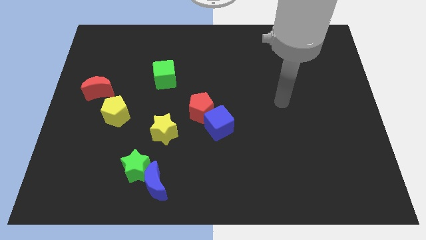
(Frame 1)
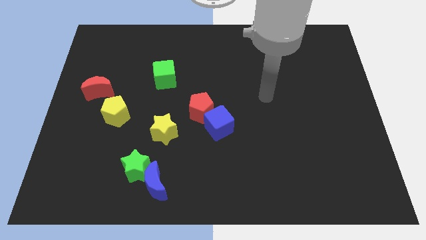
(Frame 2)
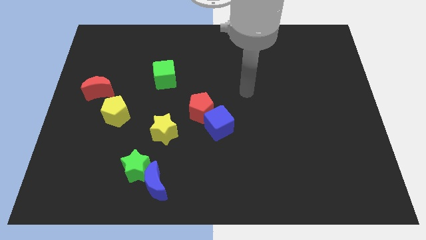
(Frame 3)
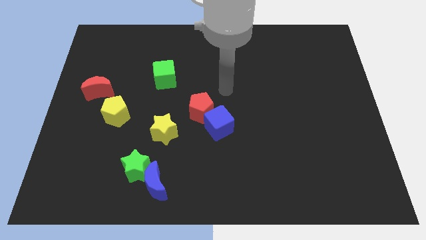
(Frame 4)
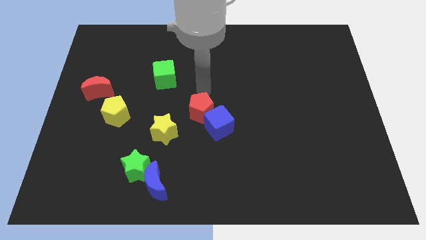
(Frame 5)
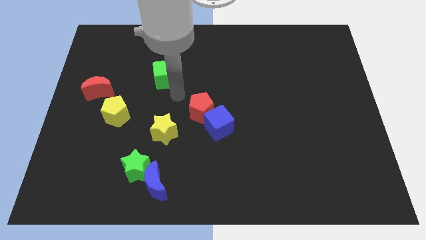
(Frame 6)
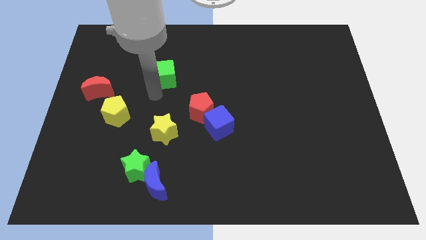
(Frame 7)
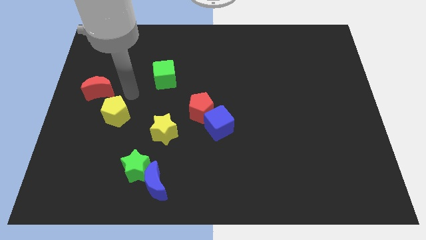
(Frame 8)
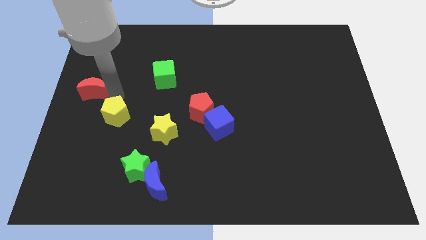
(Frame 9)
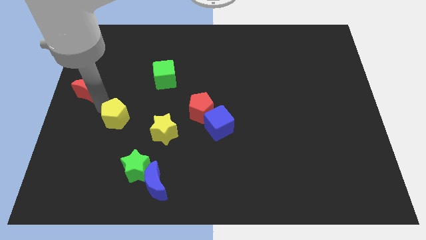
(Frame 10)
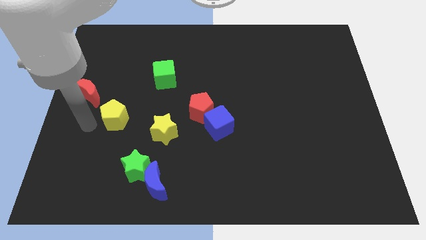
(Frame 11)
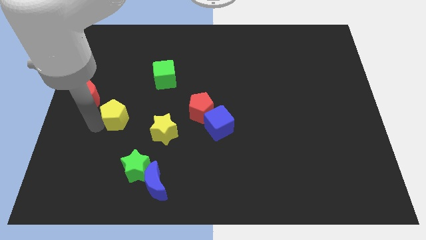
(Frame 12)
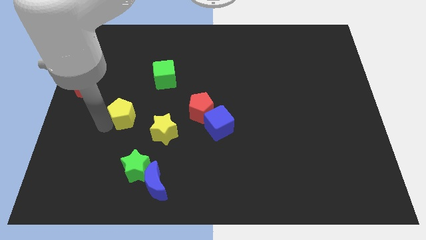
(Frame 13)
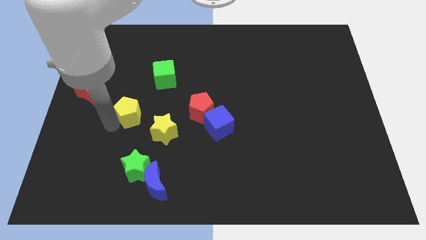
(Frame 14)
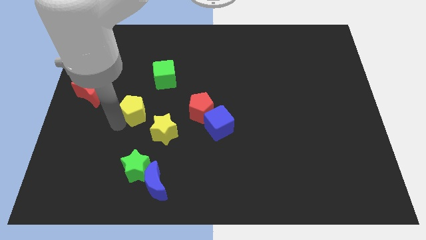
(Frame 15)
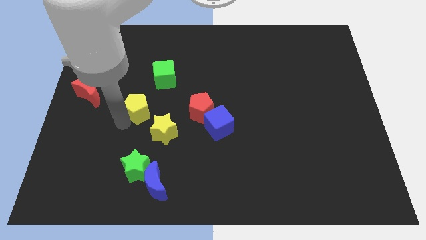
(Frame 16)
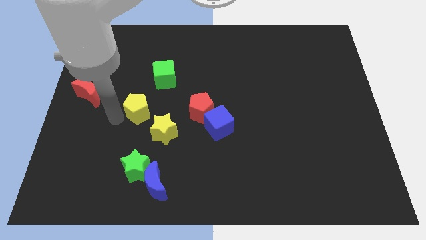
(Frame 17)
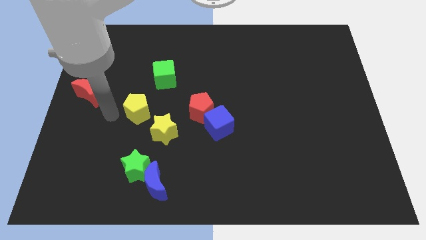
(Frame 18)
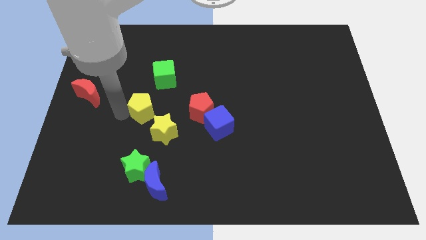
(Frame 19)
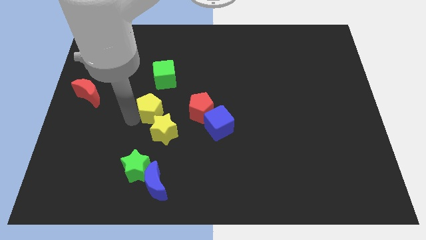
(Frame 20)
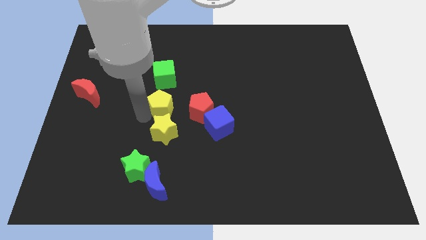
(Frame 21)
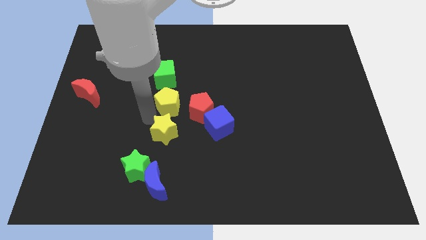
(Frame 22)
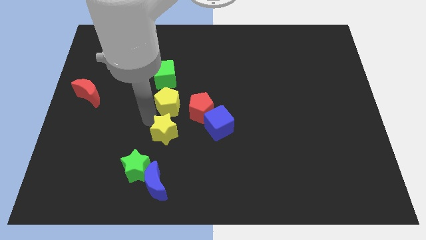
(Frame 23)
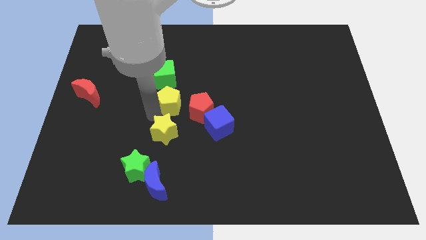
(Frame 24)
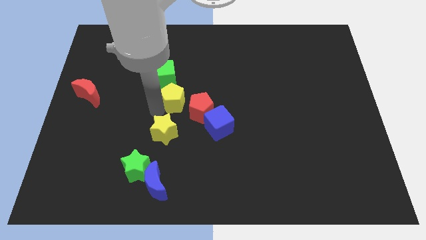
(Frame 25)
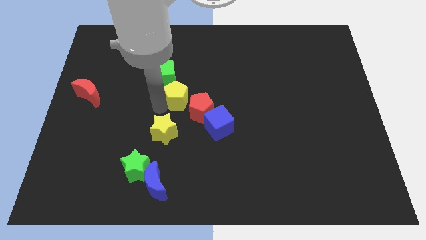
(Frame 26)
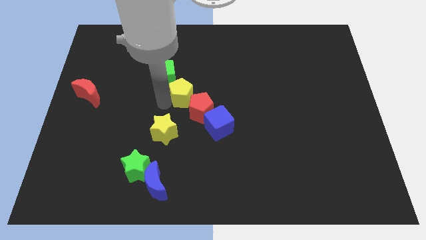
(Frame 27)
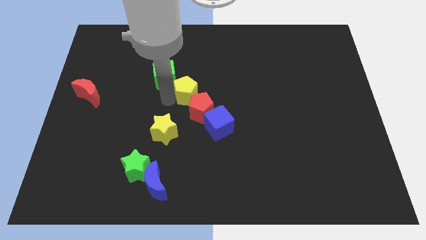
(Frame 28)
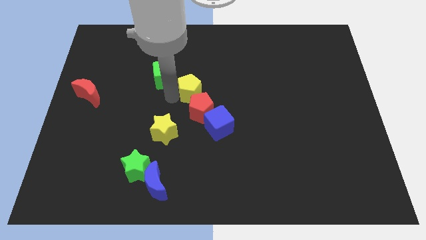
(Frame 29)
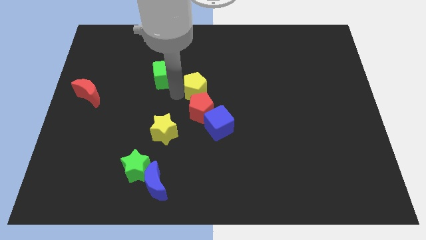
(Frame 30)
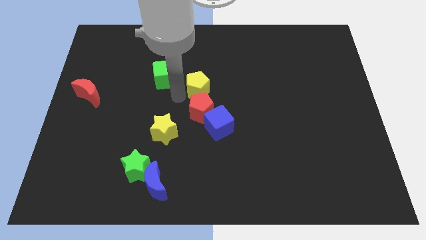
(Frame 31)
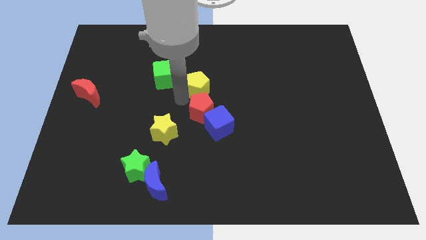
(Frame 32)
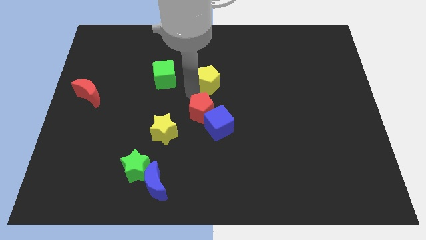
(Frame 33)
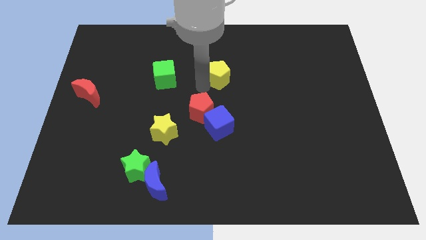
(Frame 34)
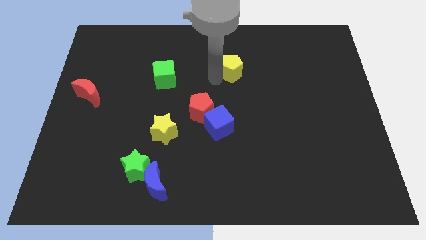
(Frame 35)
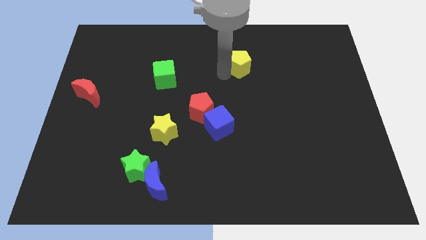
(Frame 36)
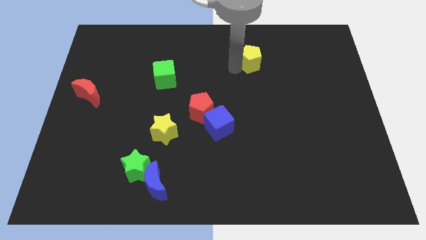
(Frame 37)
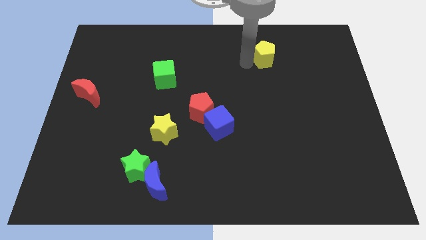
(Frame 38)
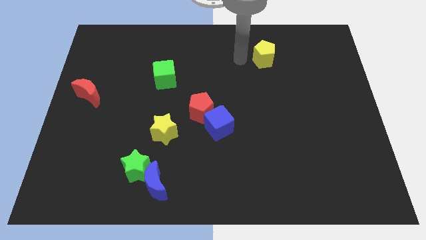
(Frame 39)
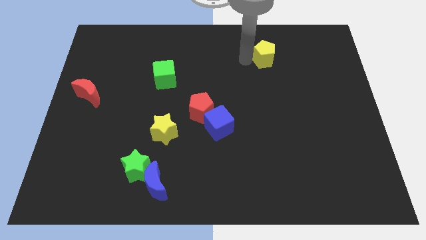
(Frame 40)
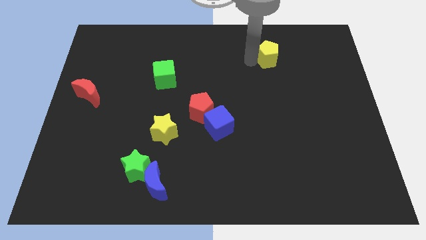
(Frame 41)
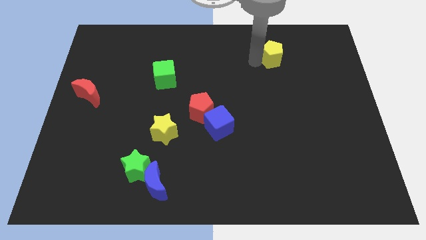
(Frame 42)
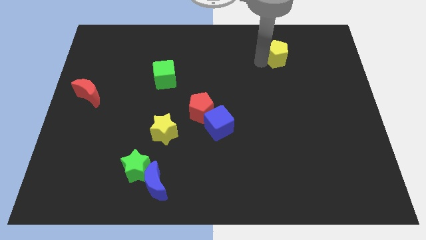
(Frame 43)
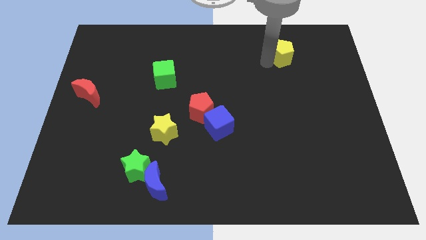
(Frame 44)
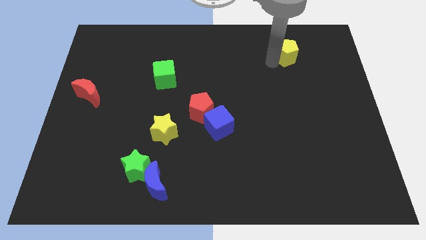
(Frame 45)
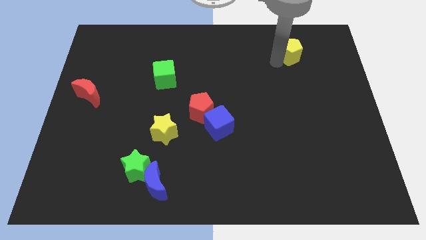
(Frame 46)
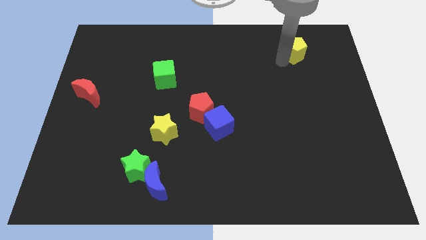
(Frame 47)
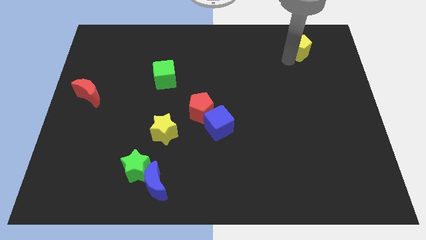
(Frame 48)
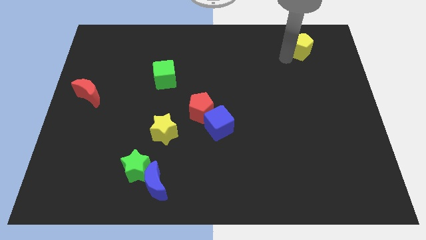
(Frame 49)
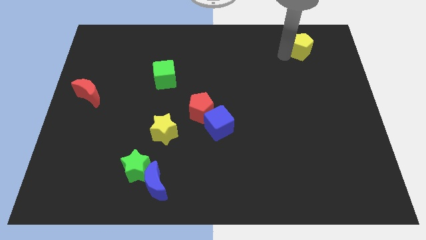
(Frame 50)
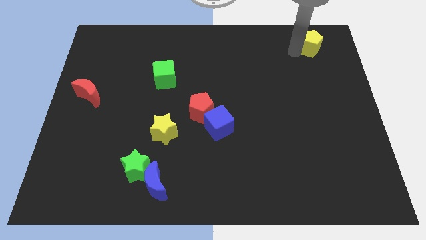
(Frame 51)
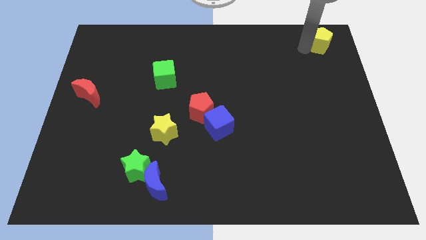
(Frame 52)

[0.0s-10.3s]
slide the yellow pentagon to the top right

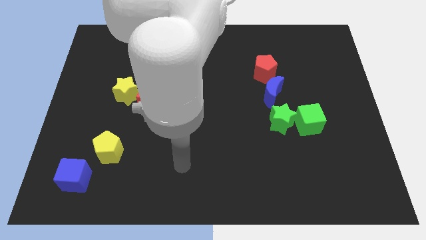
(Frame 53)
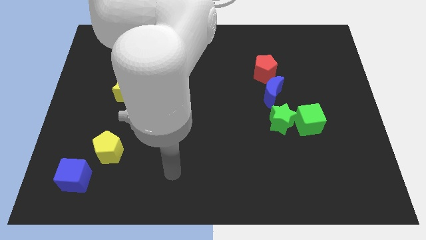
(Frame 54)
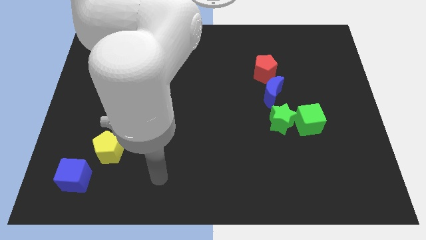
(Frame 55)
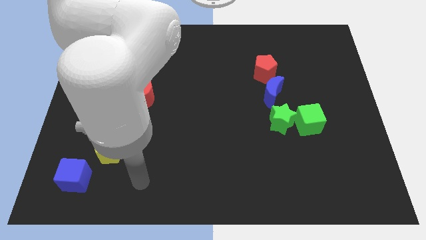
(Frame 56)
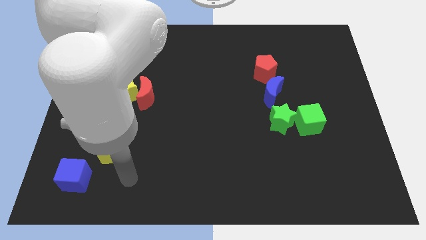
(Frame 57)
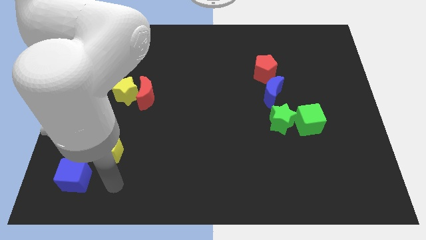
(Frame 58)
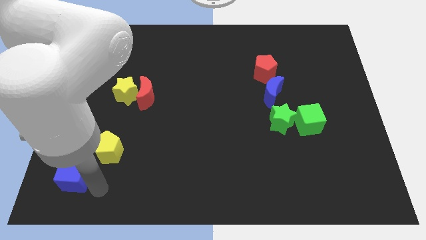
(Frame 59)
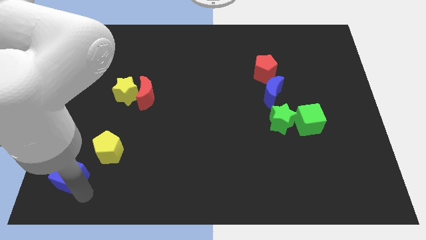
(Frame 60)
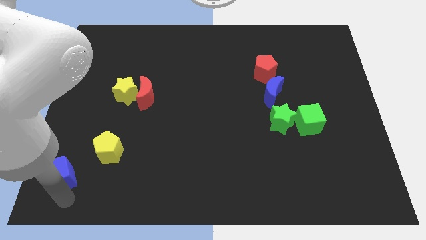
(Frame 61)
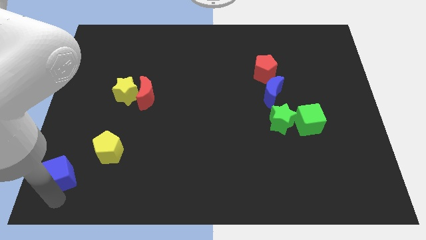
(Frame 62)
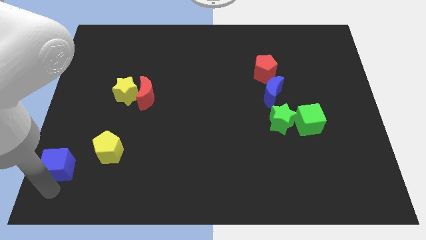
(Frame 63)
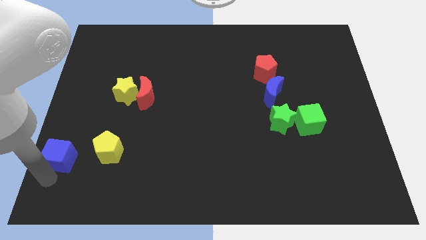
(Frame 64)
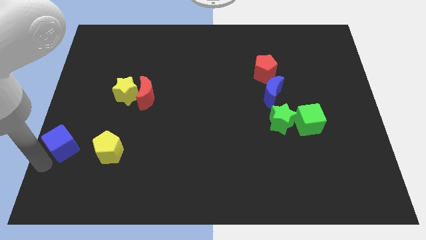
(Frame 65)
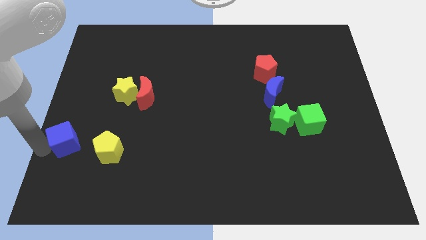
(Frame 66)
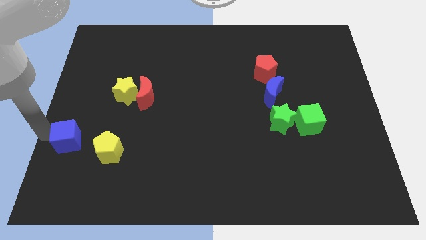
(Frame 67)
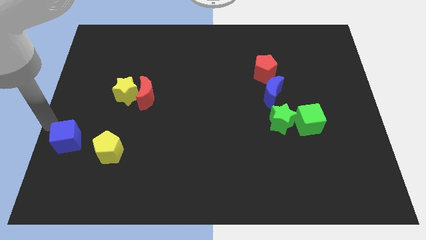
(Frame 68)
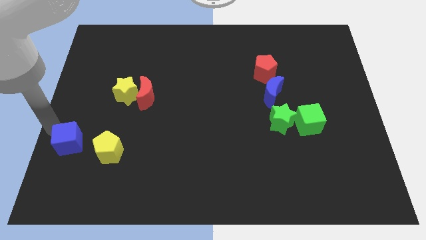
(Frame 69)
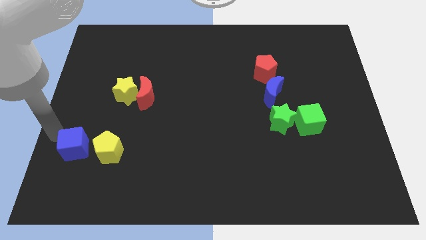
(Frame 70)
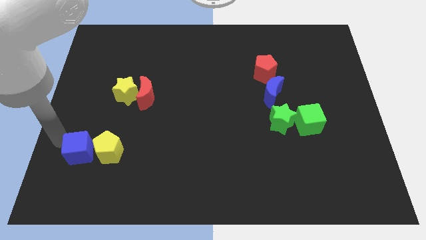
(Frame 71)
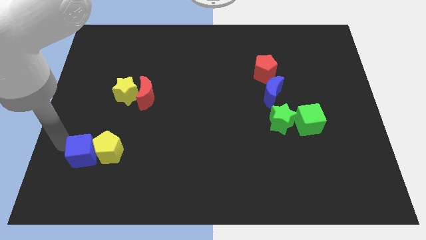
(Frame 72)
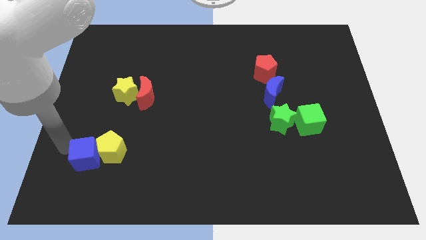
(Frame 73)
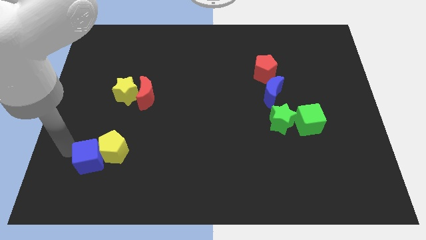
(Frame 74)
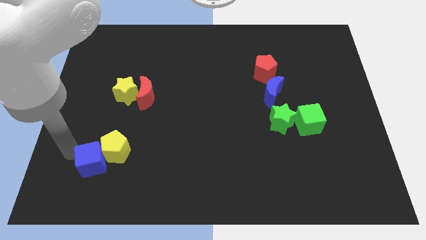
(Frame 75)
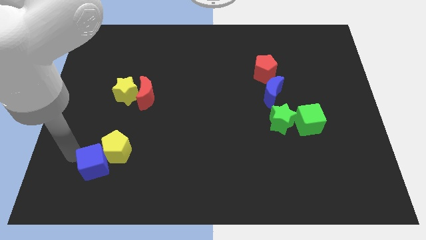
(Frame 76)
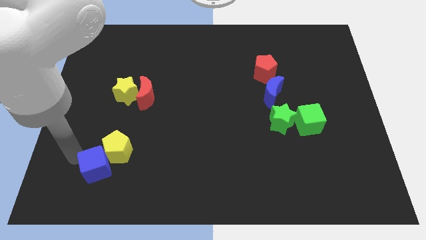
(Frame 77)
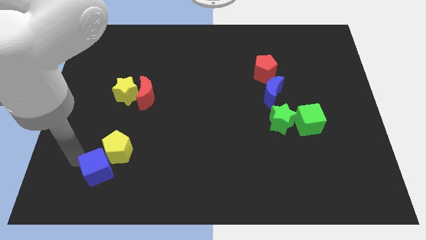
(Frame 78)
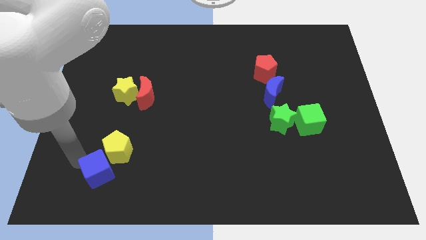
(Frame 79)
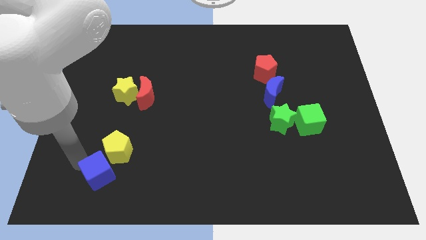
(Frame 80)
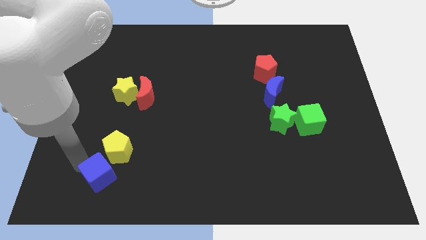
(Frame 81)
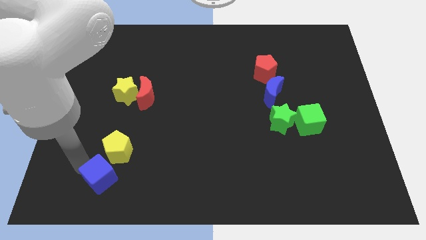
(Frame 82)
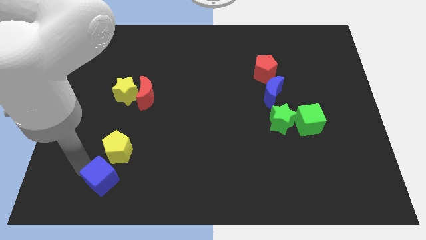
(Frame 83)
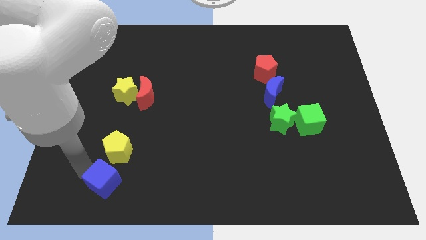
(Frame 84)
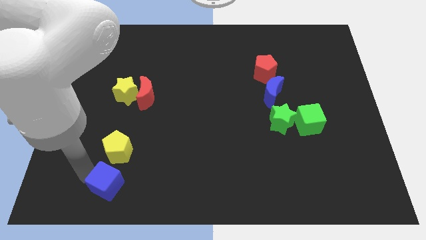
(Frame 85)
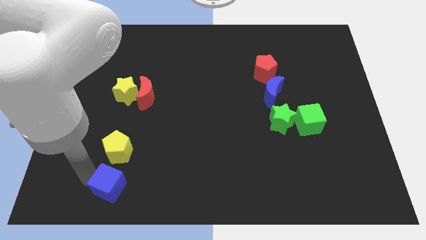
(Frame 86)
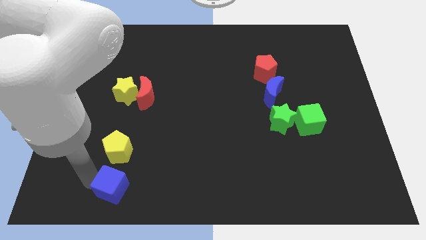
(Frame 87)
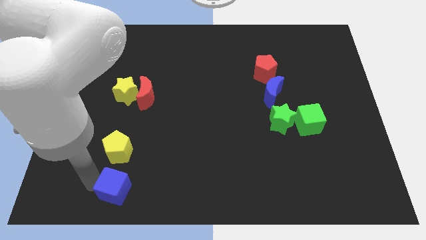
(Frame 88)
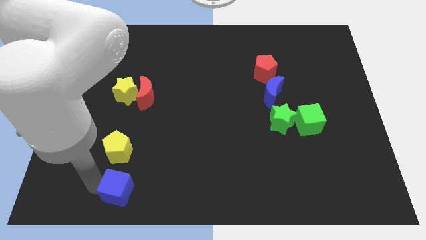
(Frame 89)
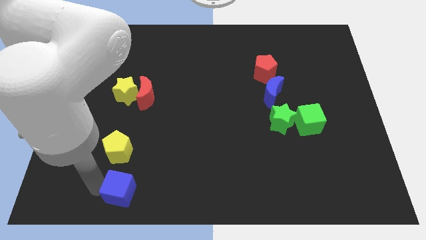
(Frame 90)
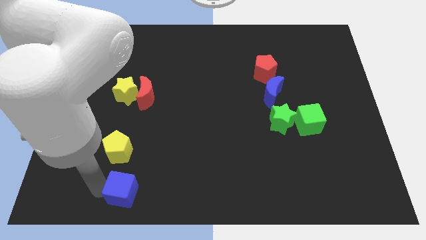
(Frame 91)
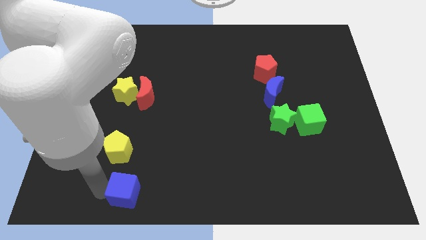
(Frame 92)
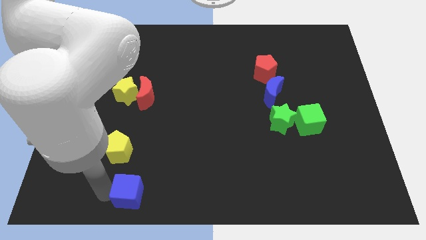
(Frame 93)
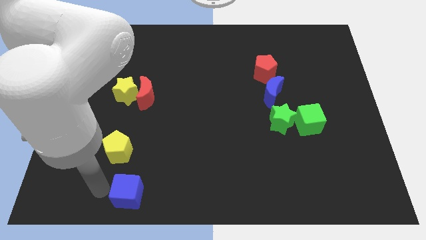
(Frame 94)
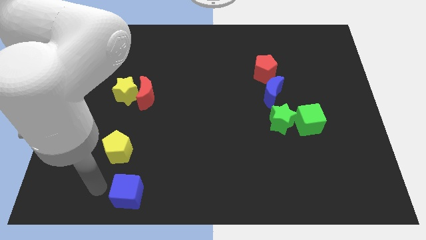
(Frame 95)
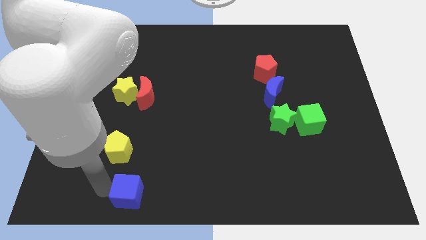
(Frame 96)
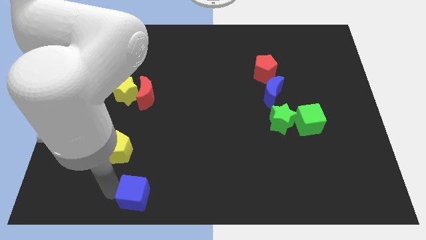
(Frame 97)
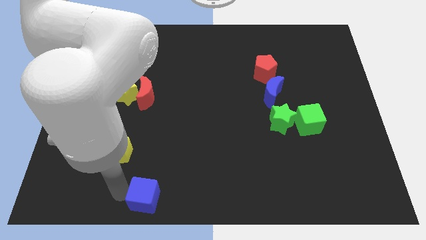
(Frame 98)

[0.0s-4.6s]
put the blue cube to the bottom
